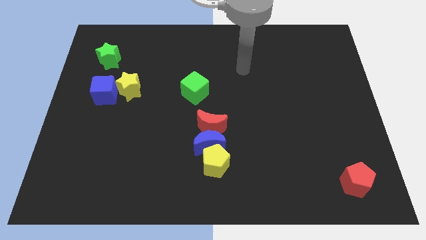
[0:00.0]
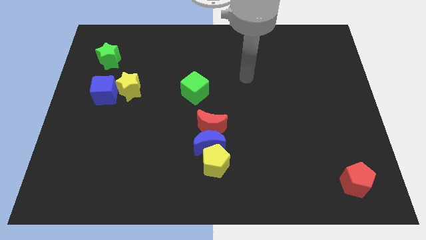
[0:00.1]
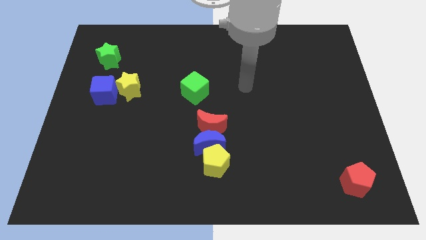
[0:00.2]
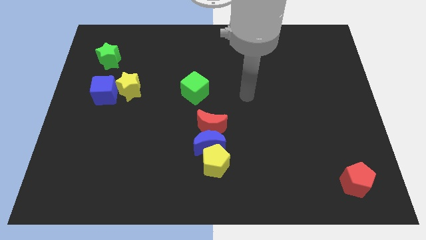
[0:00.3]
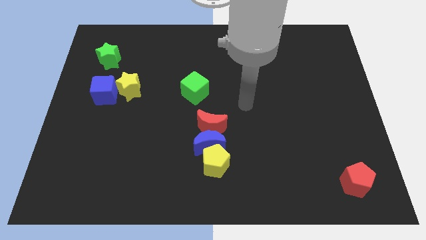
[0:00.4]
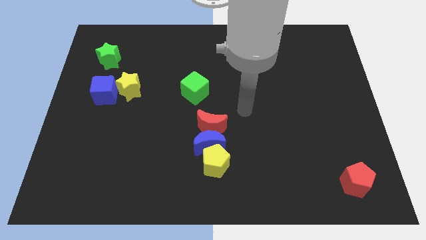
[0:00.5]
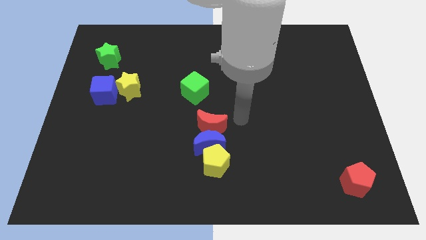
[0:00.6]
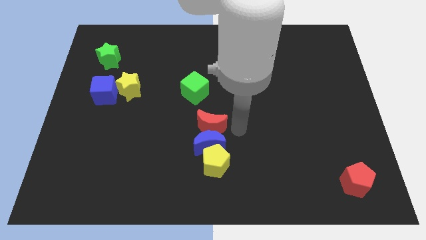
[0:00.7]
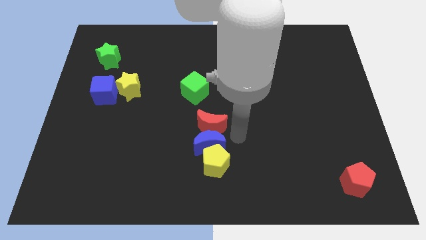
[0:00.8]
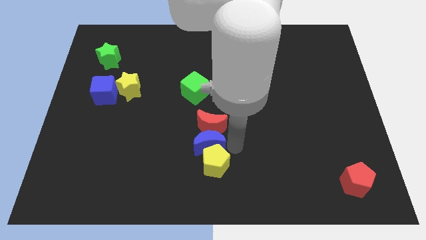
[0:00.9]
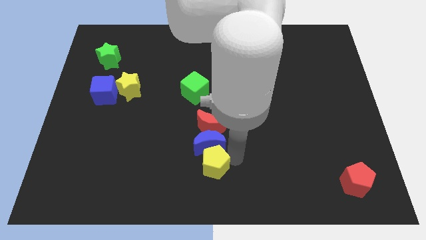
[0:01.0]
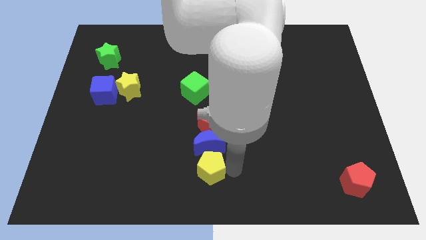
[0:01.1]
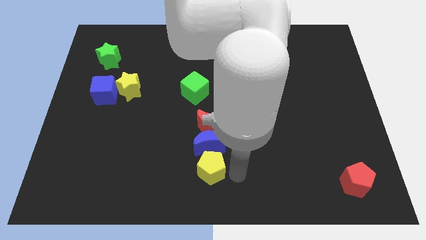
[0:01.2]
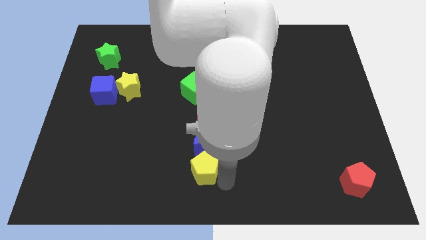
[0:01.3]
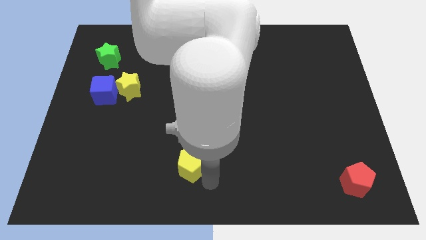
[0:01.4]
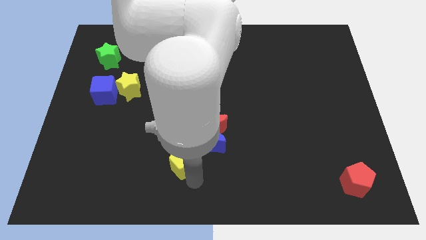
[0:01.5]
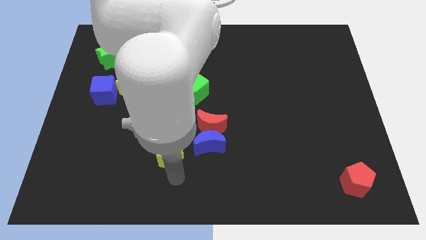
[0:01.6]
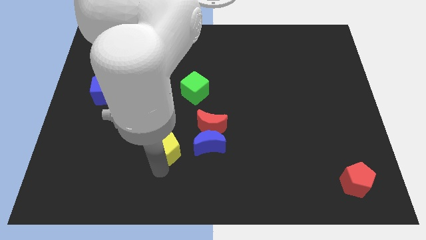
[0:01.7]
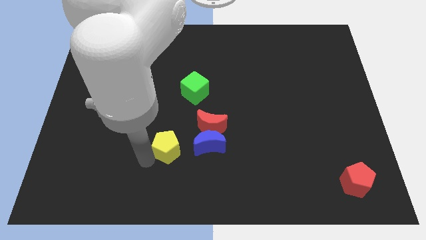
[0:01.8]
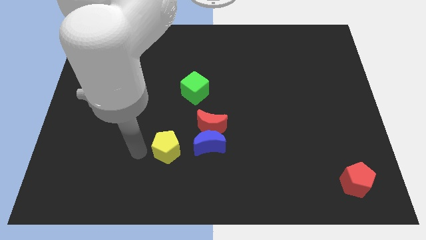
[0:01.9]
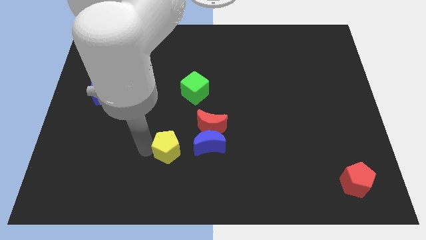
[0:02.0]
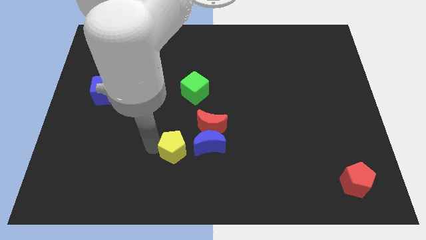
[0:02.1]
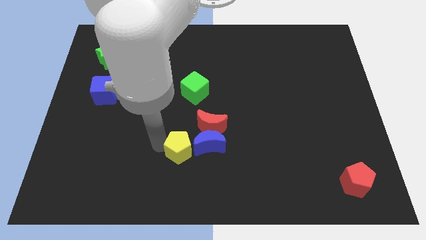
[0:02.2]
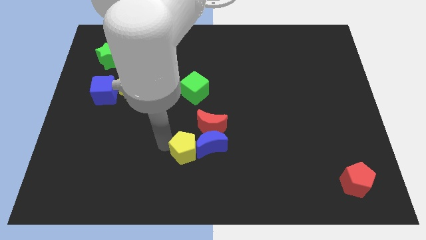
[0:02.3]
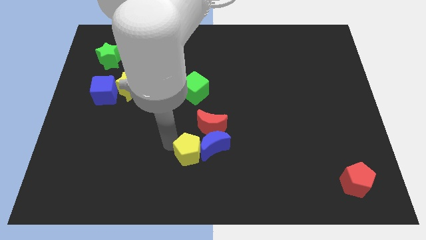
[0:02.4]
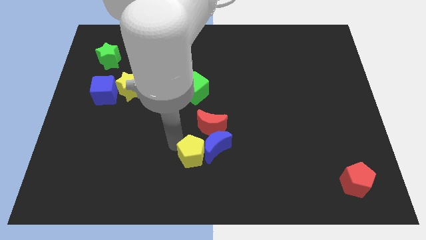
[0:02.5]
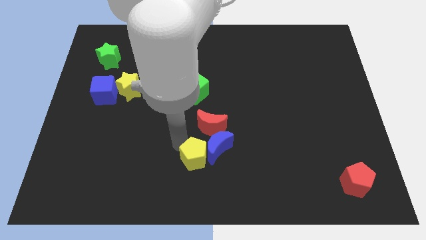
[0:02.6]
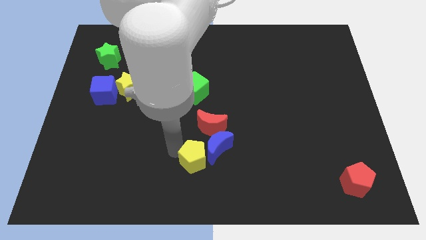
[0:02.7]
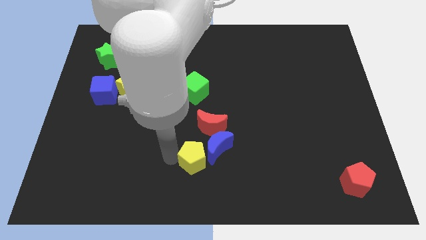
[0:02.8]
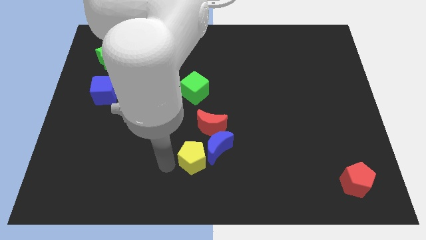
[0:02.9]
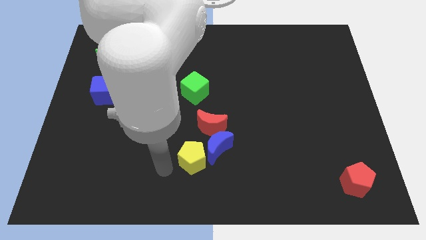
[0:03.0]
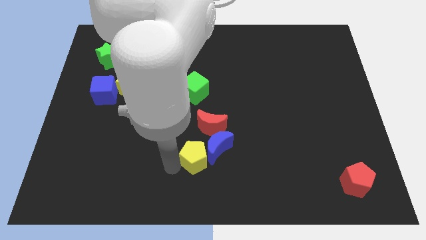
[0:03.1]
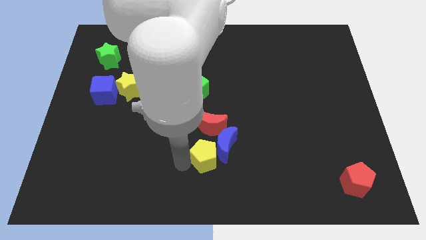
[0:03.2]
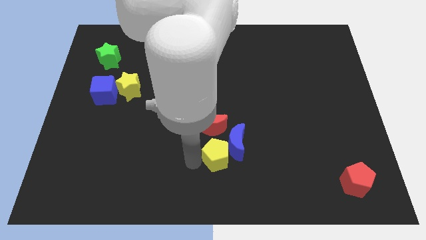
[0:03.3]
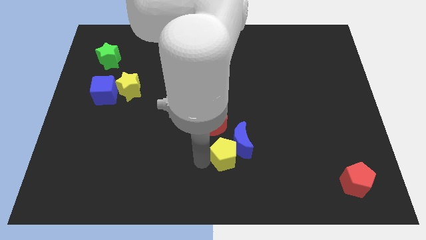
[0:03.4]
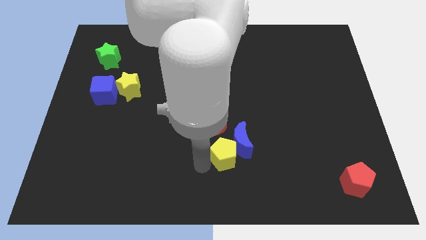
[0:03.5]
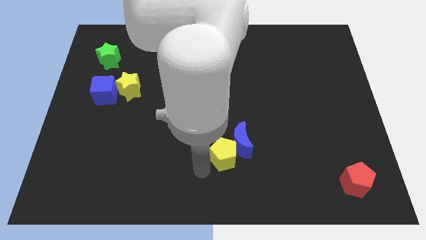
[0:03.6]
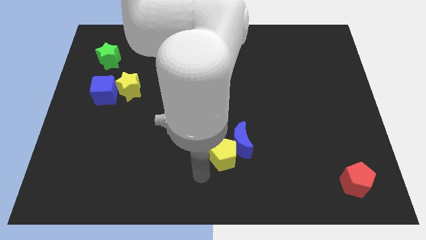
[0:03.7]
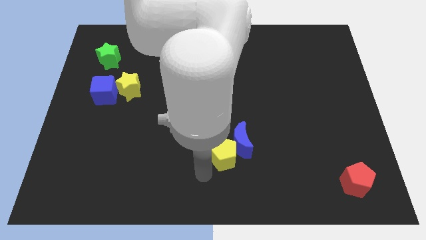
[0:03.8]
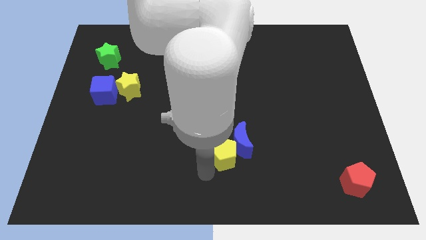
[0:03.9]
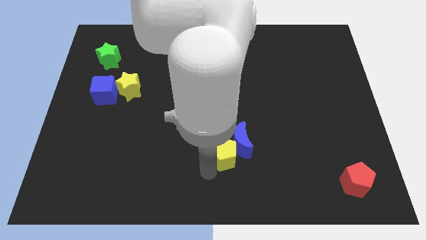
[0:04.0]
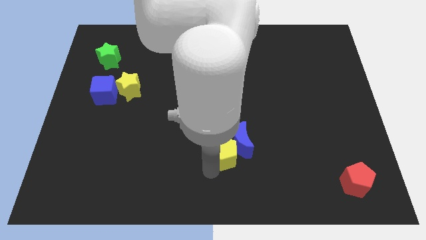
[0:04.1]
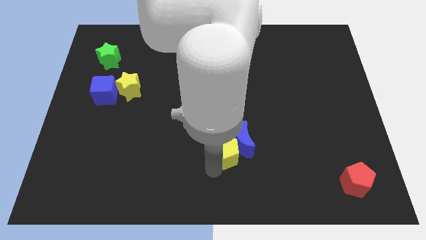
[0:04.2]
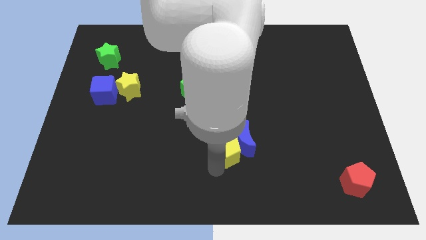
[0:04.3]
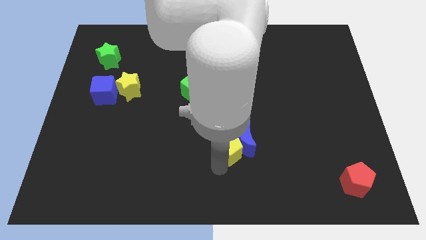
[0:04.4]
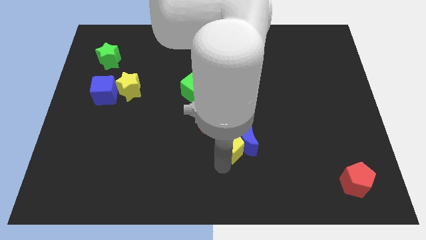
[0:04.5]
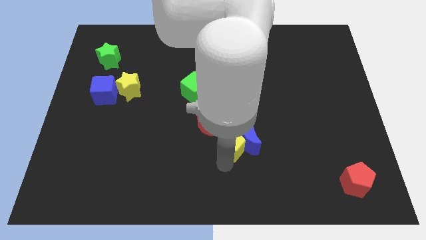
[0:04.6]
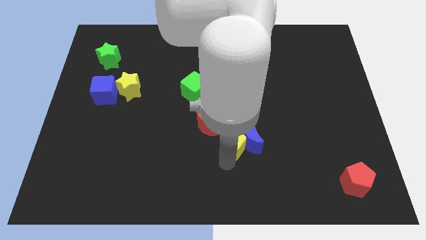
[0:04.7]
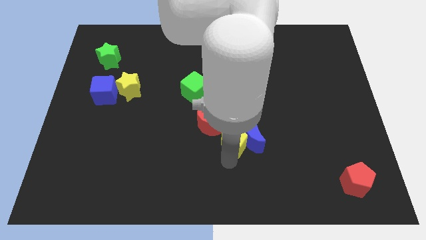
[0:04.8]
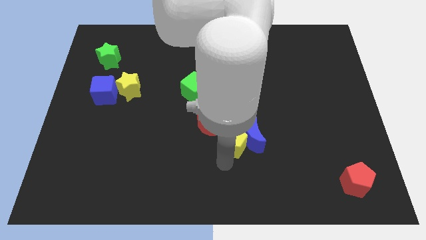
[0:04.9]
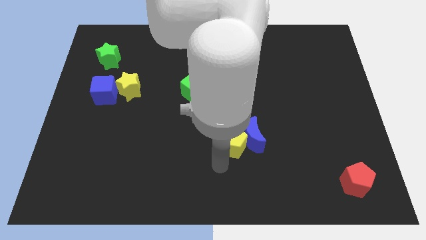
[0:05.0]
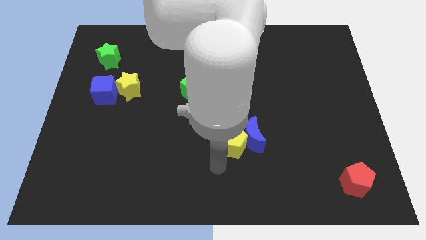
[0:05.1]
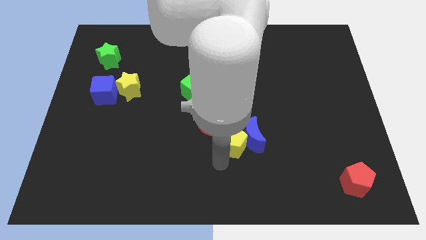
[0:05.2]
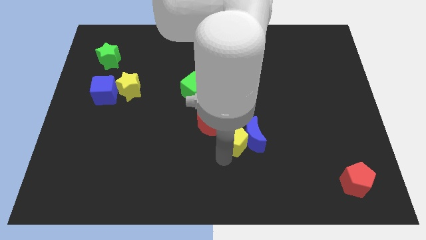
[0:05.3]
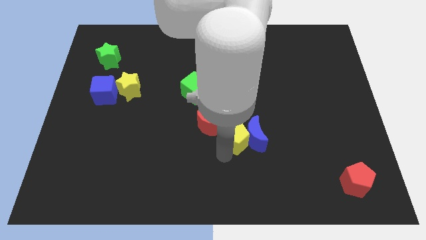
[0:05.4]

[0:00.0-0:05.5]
move the yellow pentagon to the middle

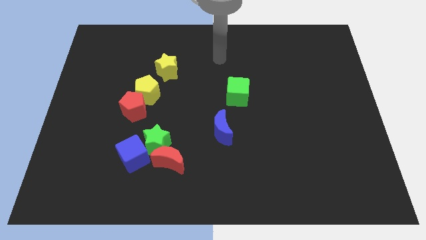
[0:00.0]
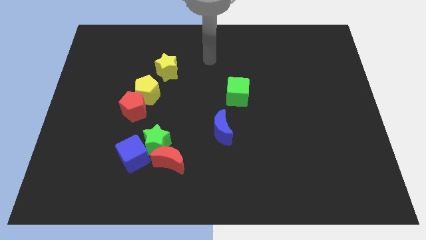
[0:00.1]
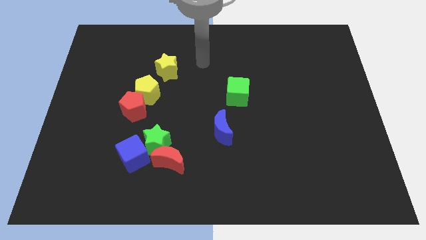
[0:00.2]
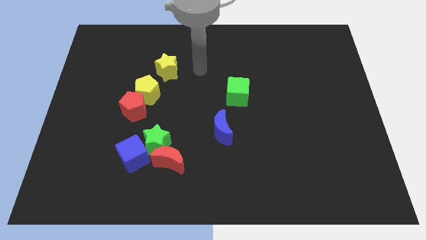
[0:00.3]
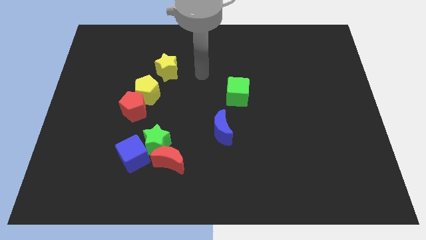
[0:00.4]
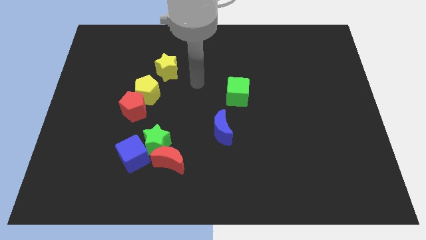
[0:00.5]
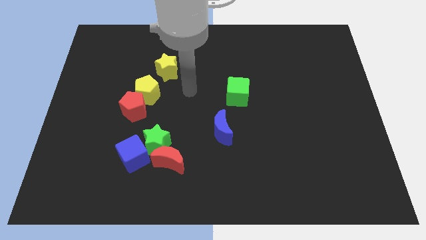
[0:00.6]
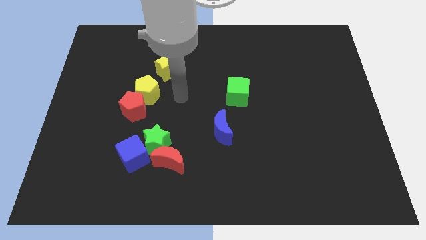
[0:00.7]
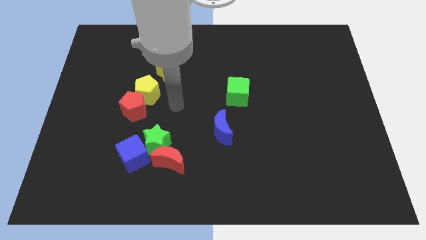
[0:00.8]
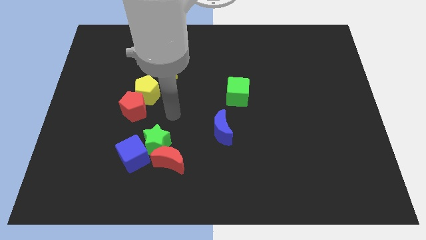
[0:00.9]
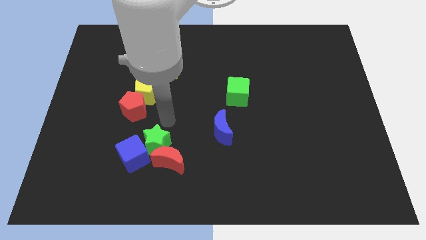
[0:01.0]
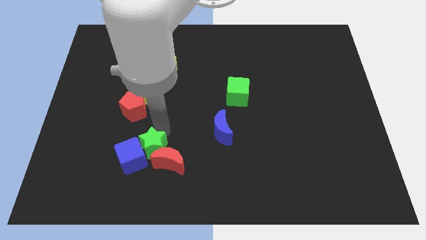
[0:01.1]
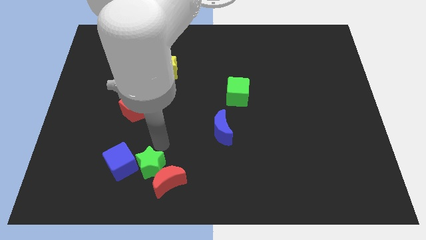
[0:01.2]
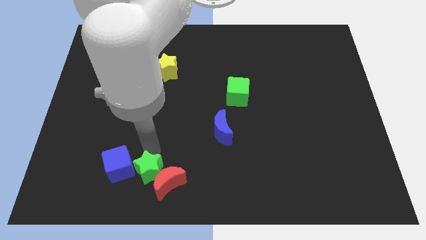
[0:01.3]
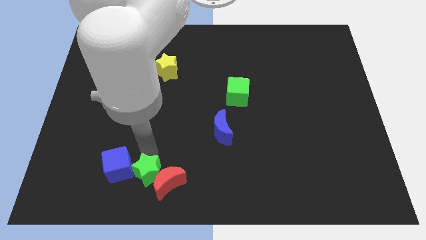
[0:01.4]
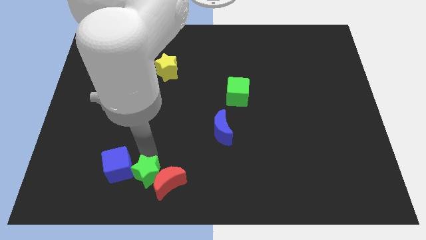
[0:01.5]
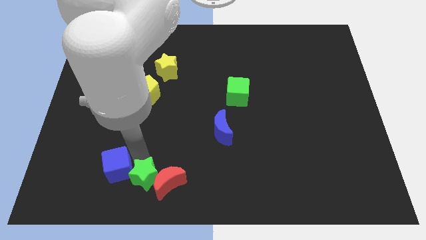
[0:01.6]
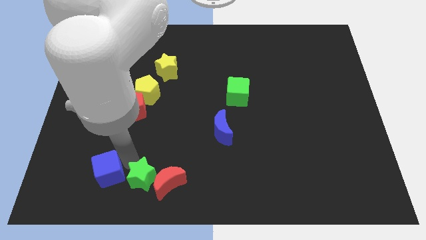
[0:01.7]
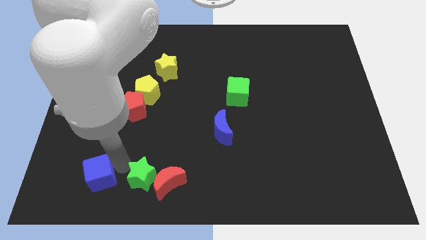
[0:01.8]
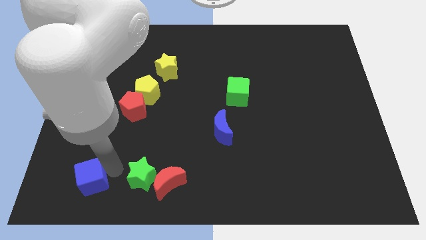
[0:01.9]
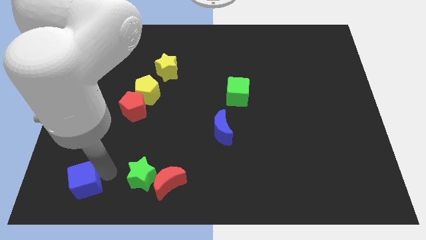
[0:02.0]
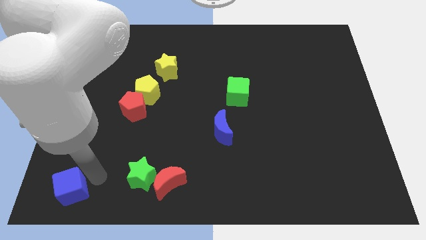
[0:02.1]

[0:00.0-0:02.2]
slide the blue cube to the lower left corner
